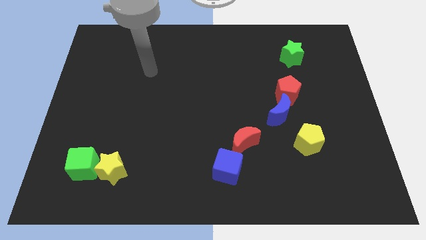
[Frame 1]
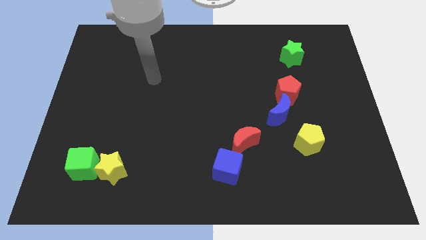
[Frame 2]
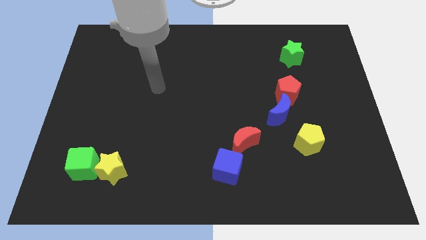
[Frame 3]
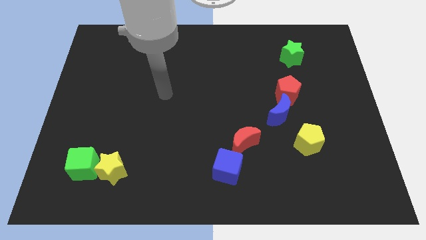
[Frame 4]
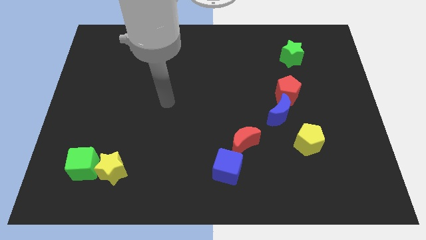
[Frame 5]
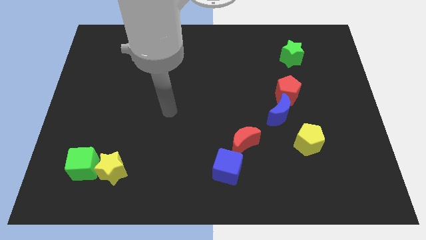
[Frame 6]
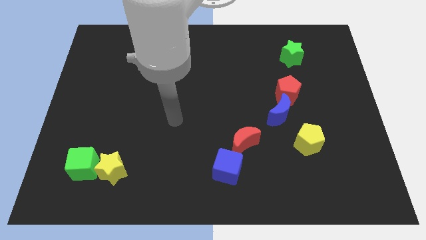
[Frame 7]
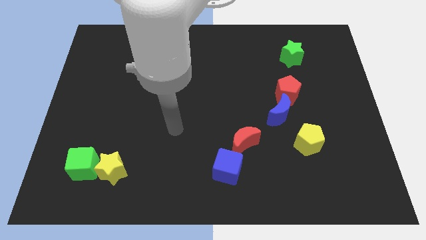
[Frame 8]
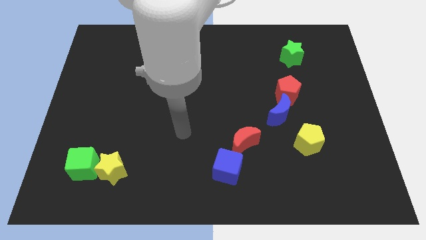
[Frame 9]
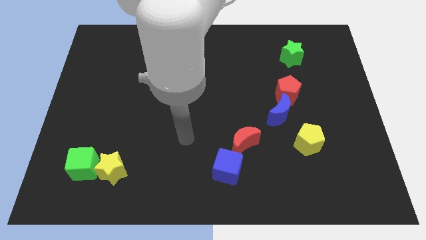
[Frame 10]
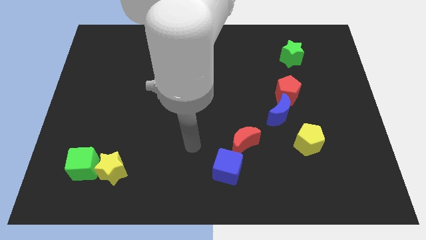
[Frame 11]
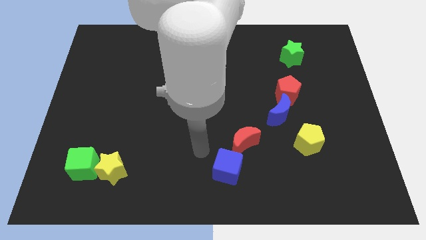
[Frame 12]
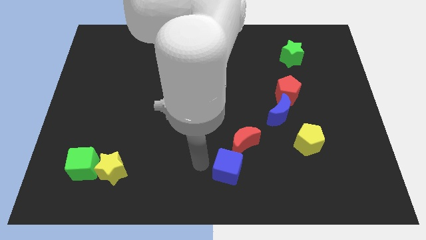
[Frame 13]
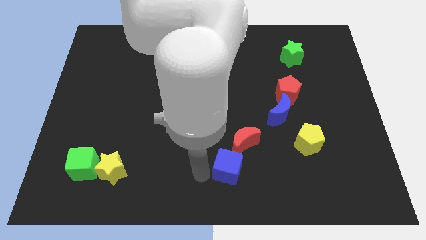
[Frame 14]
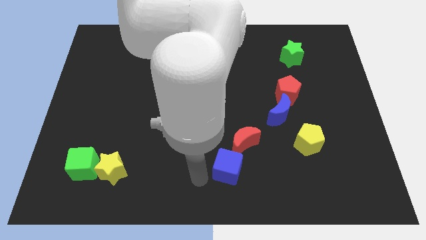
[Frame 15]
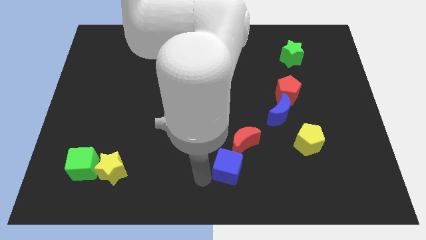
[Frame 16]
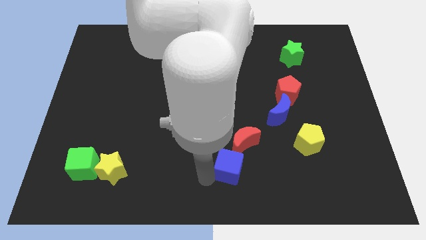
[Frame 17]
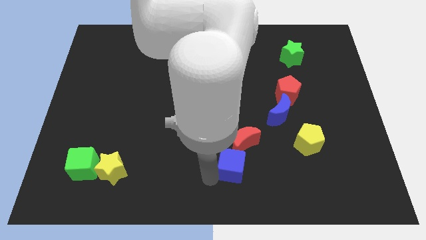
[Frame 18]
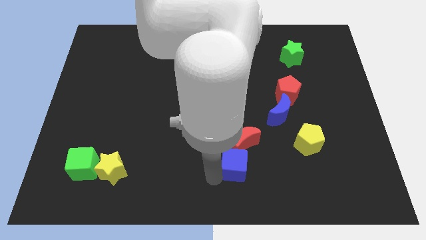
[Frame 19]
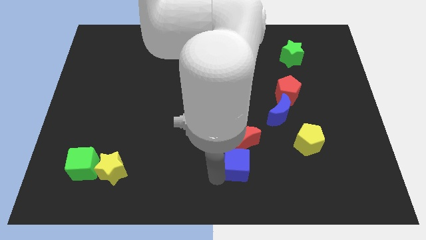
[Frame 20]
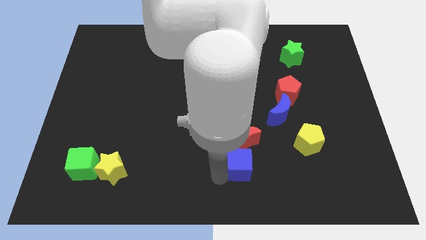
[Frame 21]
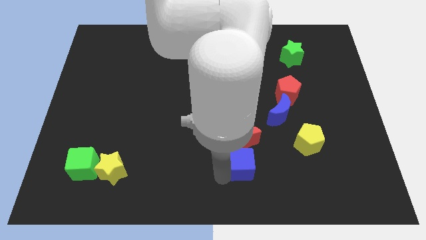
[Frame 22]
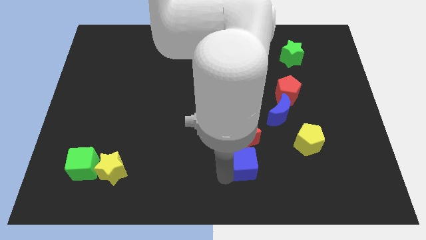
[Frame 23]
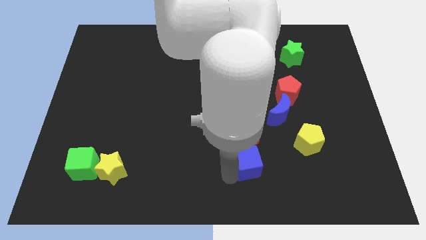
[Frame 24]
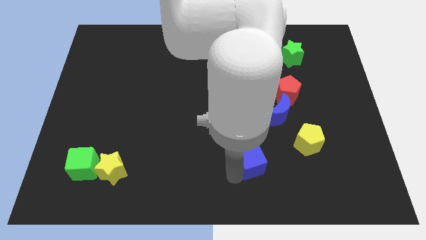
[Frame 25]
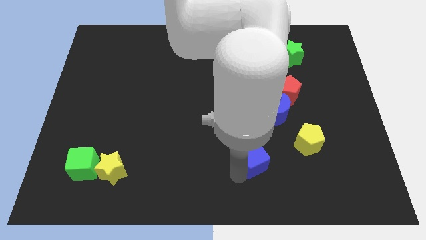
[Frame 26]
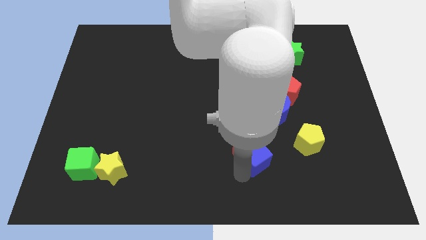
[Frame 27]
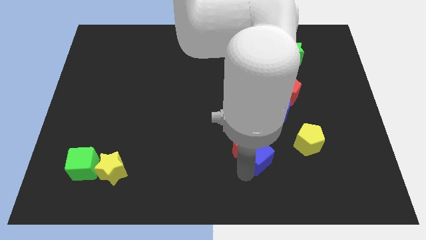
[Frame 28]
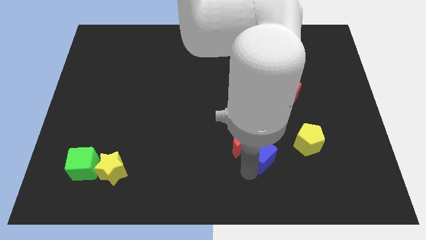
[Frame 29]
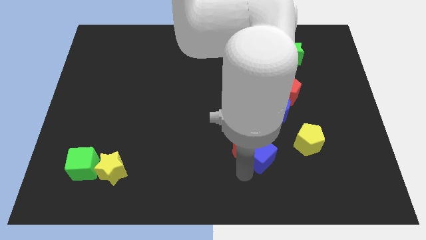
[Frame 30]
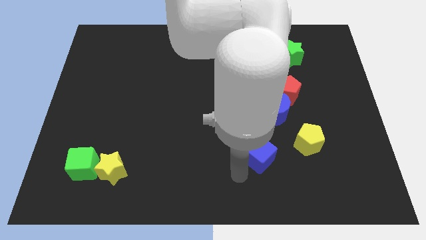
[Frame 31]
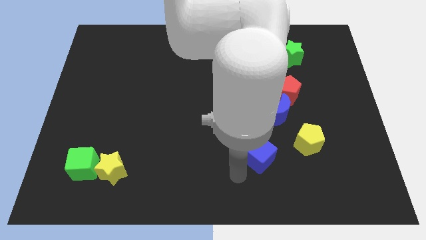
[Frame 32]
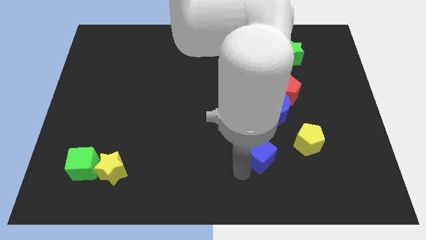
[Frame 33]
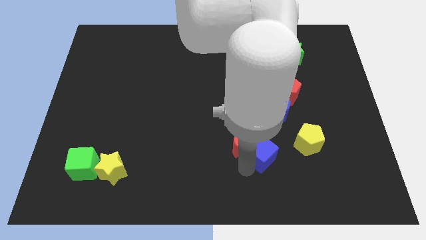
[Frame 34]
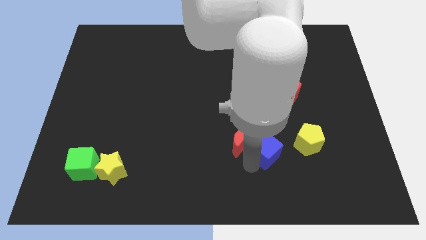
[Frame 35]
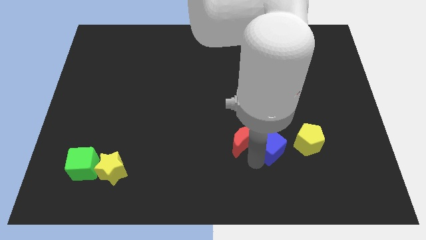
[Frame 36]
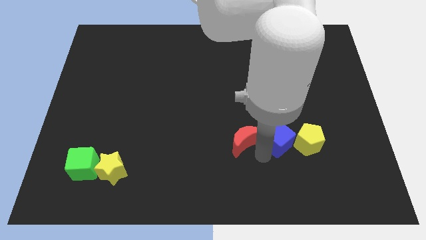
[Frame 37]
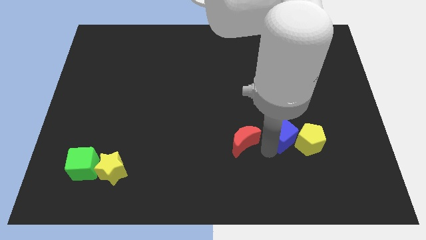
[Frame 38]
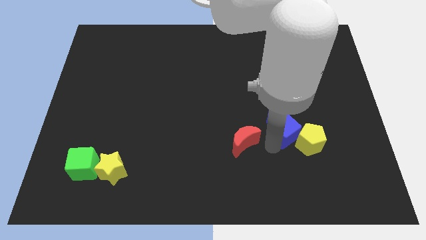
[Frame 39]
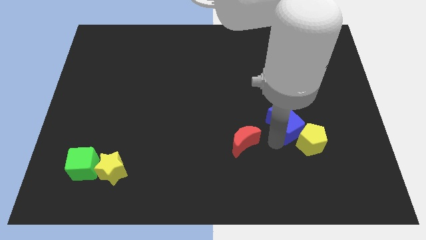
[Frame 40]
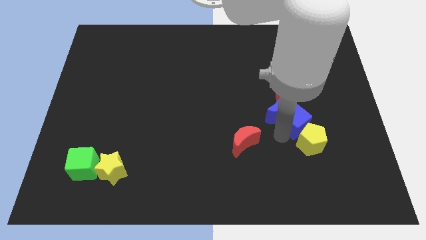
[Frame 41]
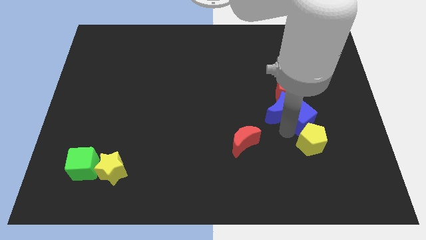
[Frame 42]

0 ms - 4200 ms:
move the blue cube to the bottom right side of the red pentagon

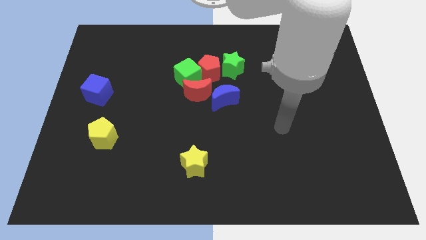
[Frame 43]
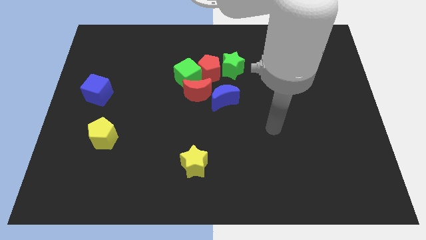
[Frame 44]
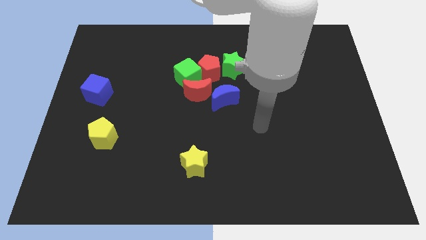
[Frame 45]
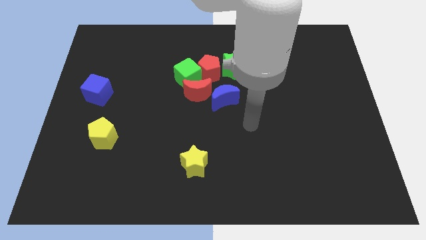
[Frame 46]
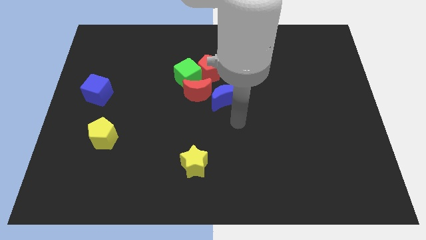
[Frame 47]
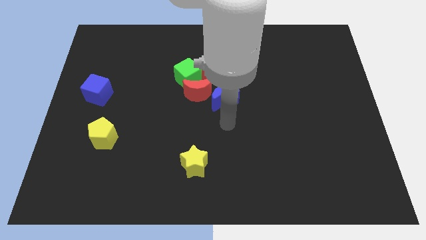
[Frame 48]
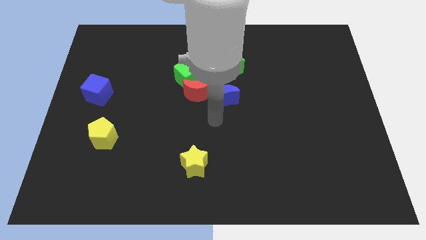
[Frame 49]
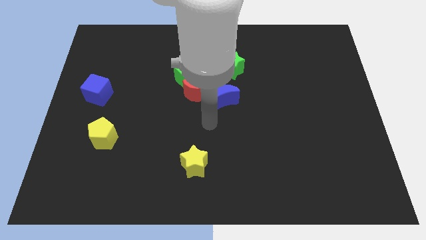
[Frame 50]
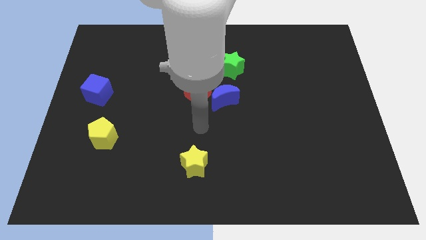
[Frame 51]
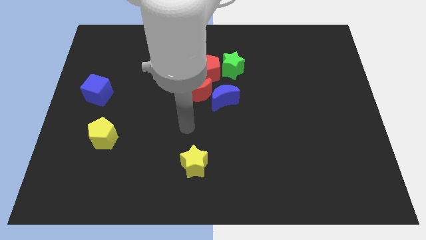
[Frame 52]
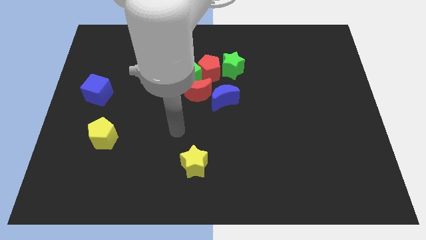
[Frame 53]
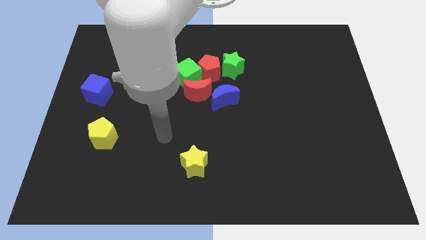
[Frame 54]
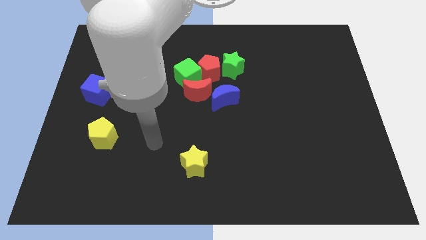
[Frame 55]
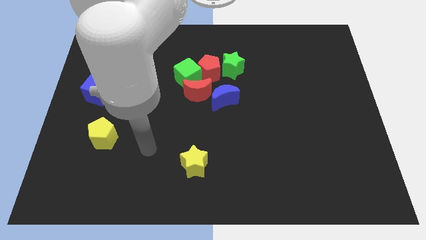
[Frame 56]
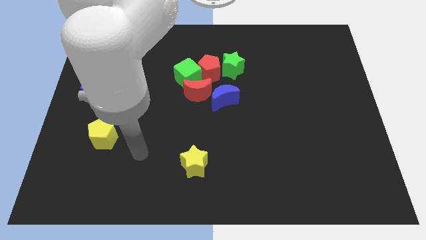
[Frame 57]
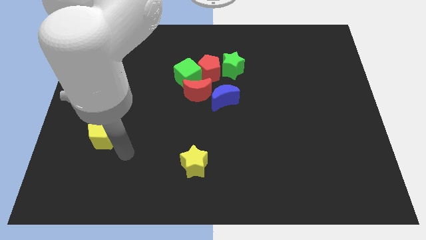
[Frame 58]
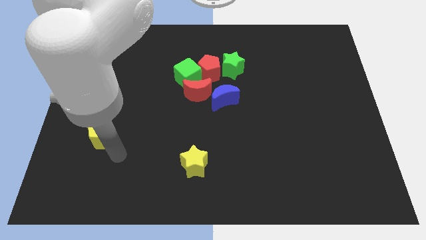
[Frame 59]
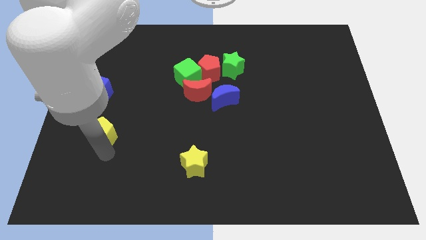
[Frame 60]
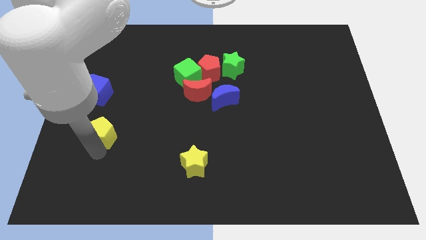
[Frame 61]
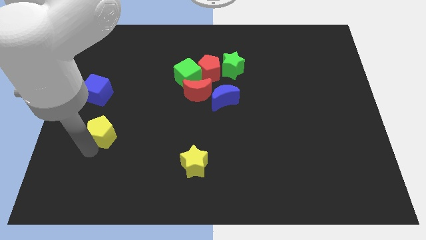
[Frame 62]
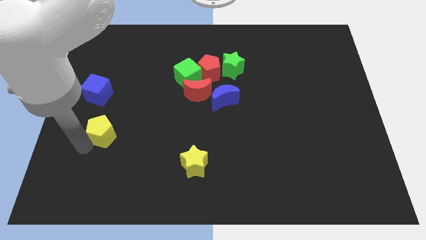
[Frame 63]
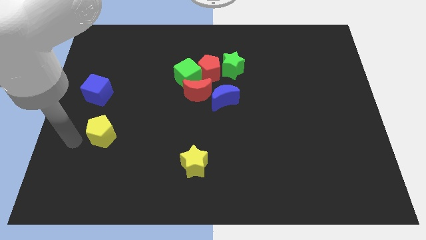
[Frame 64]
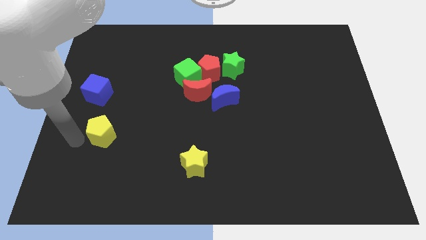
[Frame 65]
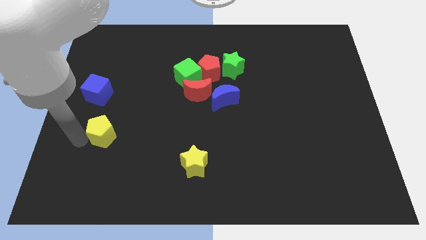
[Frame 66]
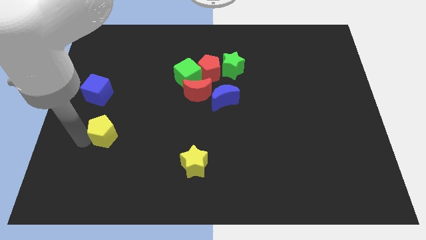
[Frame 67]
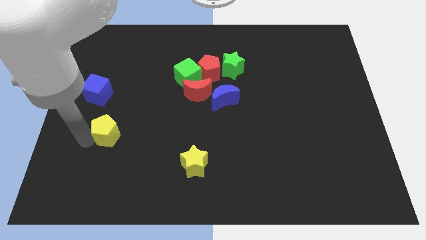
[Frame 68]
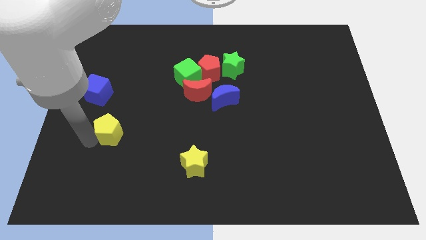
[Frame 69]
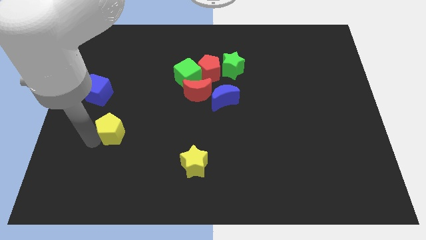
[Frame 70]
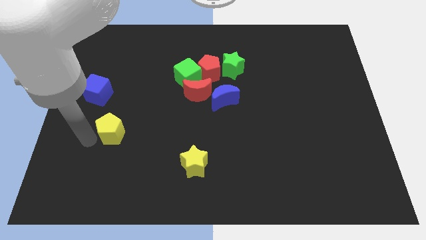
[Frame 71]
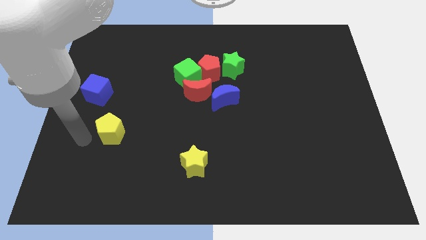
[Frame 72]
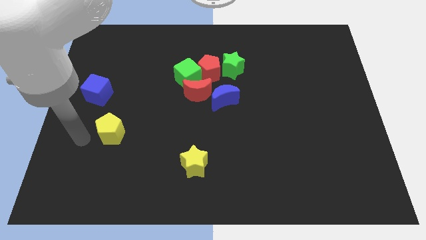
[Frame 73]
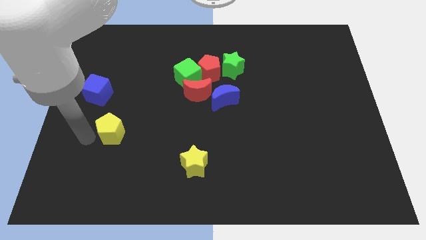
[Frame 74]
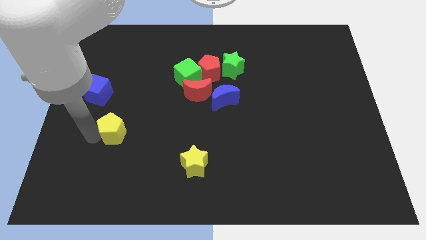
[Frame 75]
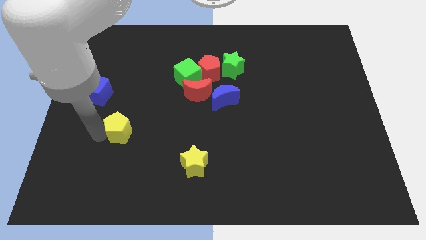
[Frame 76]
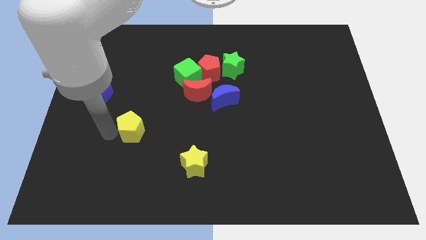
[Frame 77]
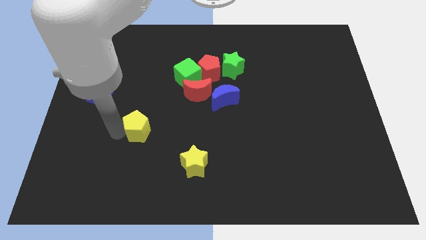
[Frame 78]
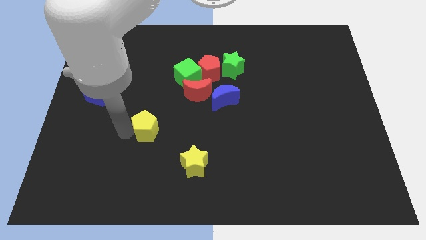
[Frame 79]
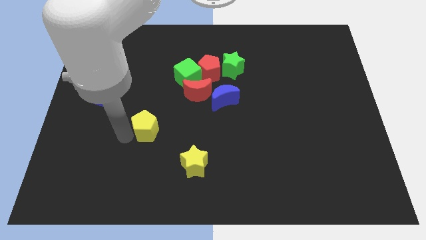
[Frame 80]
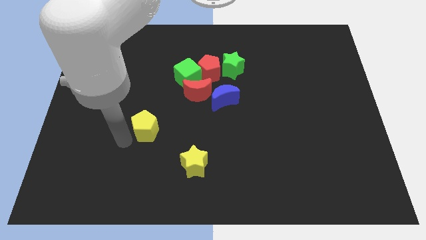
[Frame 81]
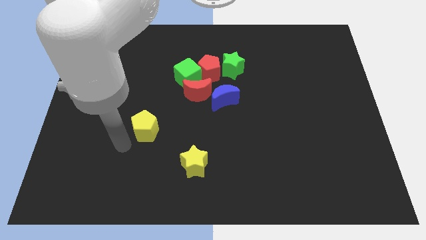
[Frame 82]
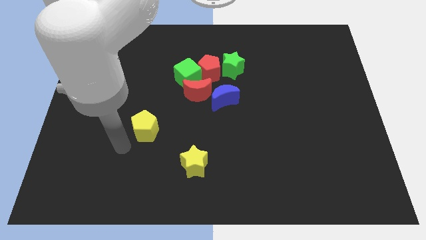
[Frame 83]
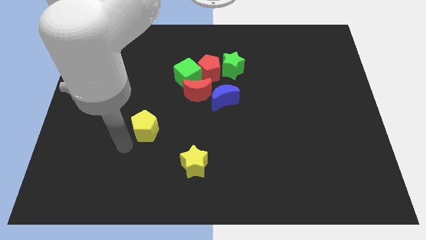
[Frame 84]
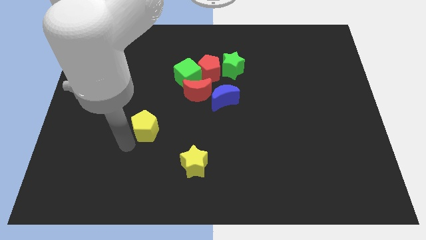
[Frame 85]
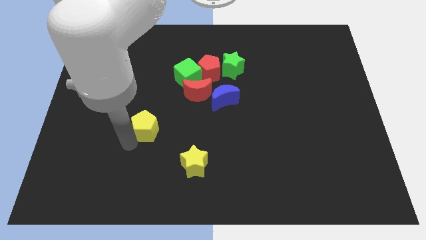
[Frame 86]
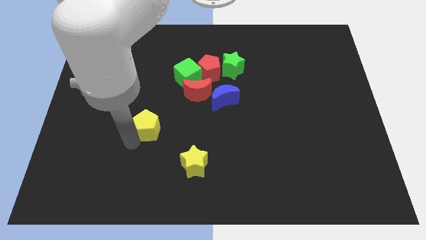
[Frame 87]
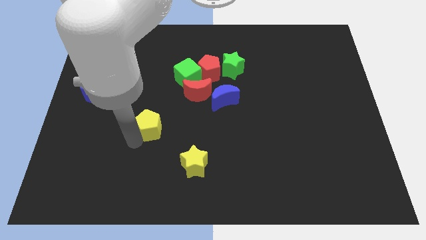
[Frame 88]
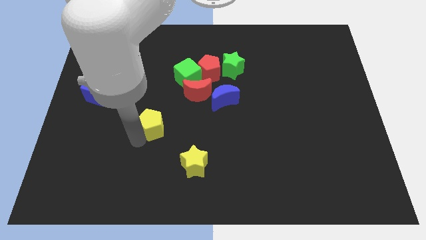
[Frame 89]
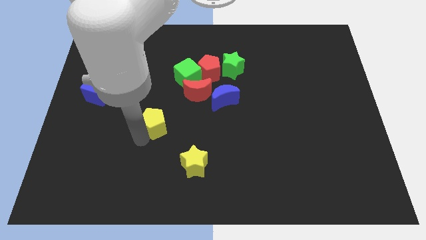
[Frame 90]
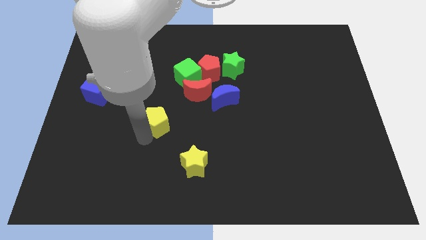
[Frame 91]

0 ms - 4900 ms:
slide the yellow pentagon to the bottom left side of the red moon
